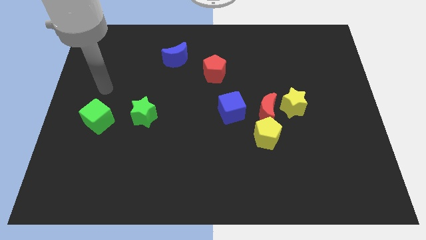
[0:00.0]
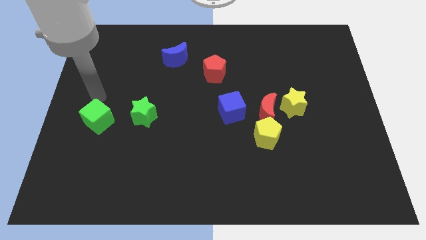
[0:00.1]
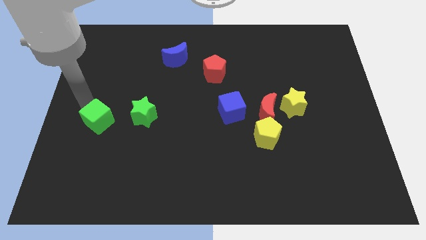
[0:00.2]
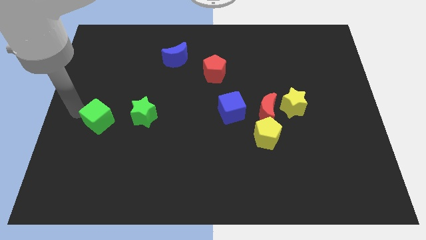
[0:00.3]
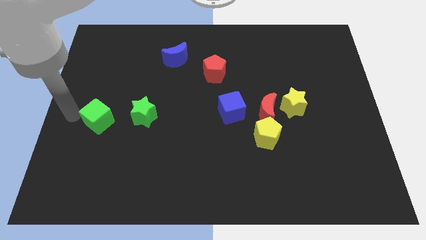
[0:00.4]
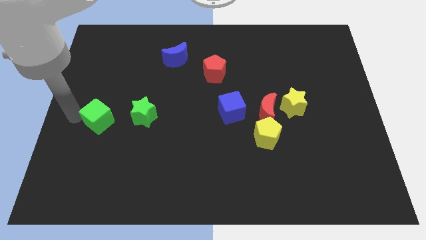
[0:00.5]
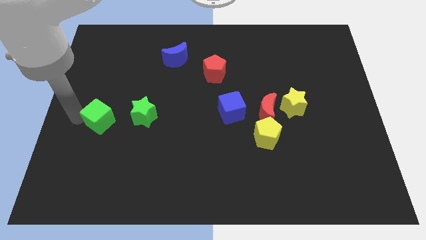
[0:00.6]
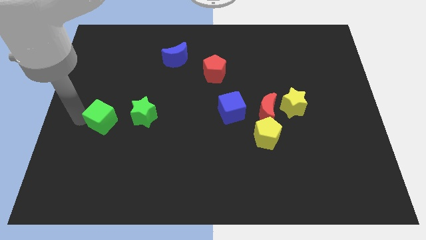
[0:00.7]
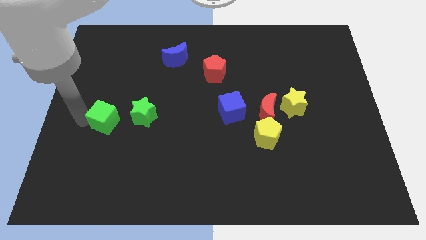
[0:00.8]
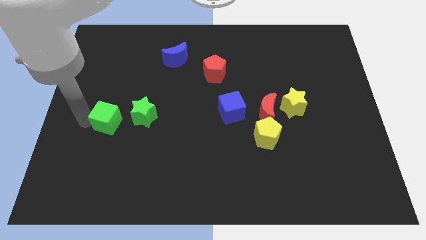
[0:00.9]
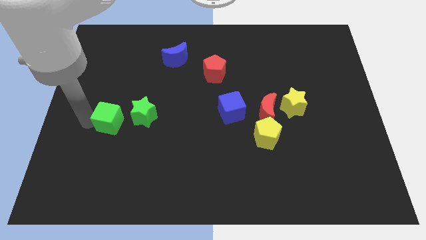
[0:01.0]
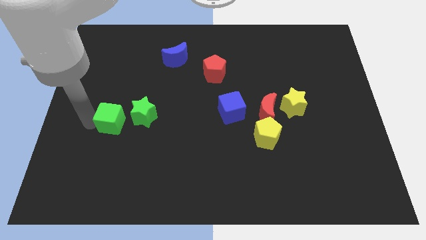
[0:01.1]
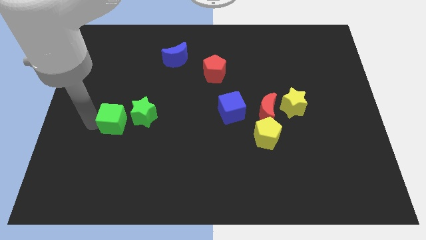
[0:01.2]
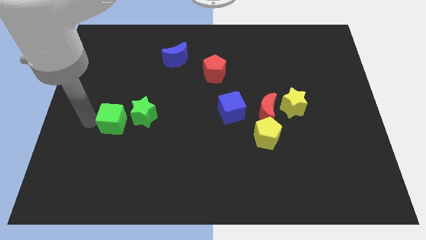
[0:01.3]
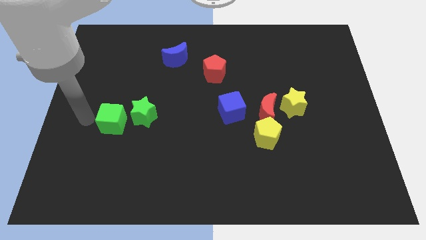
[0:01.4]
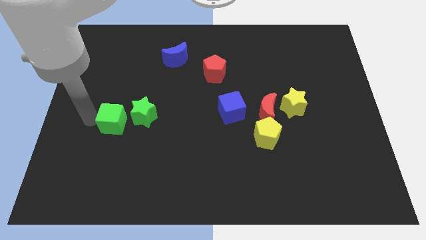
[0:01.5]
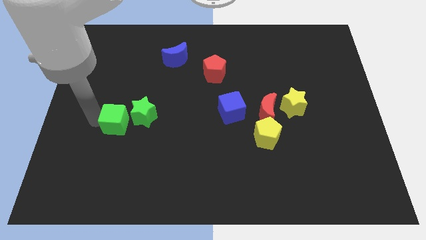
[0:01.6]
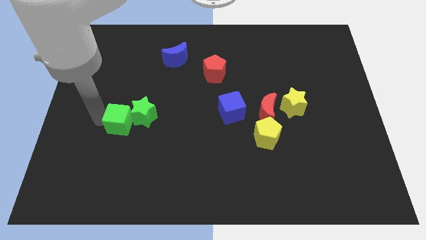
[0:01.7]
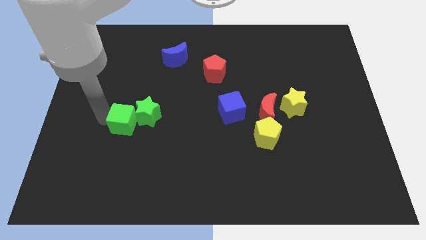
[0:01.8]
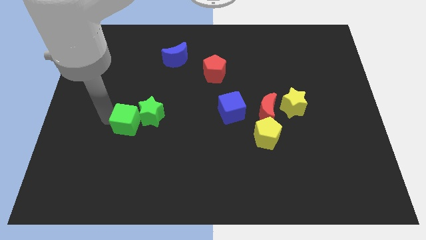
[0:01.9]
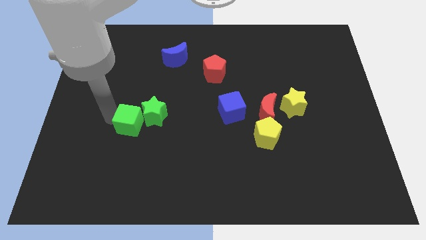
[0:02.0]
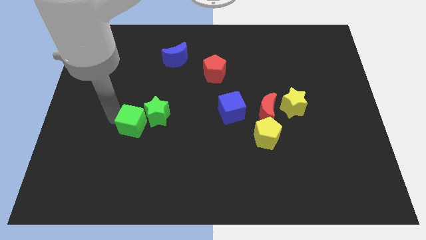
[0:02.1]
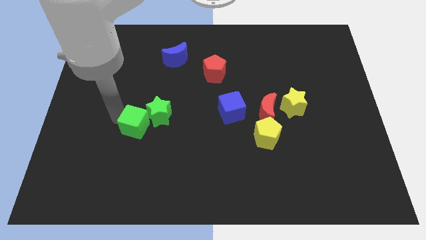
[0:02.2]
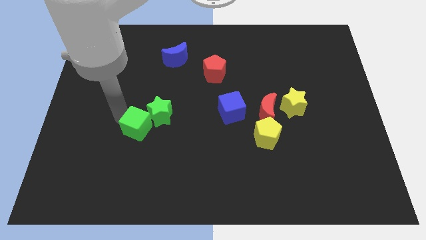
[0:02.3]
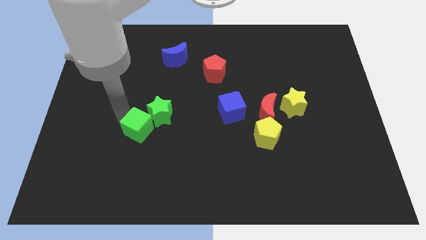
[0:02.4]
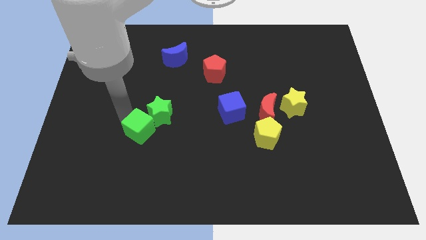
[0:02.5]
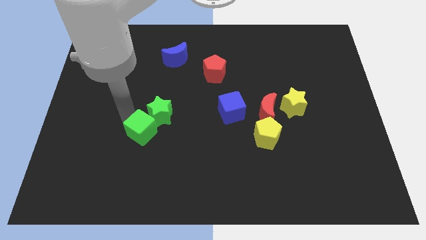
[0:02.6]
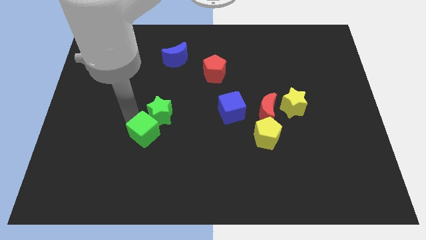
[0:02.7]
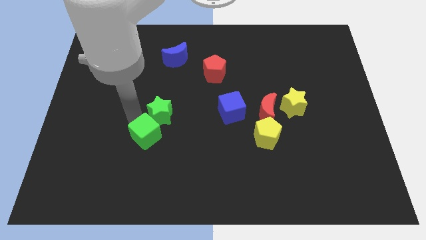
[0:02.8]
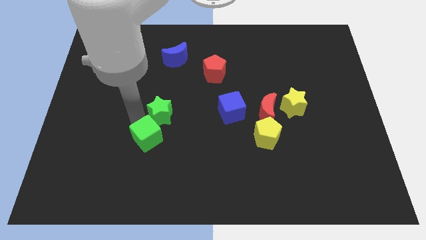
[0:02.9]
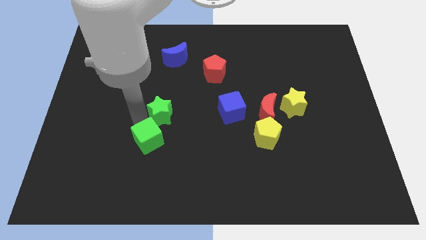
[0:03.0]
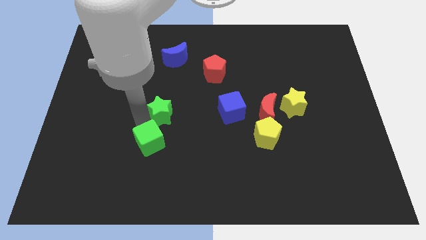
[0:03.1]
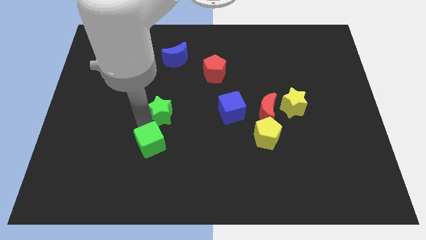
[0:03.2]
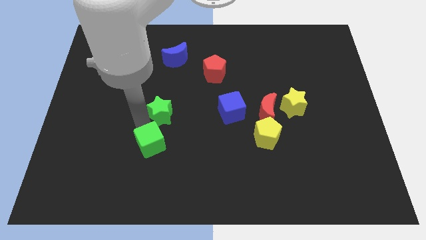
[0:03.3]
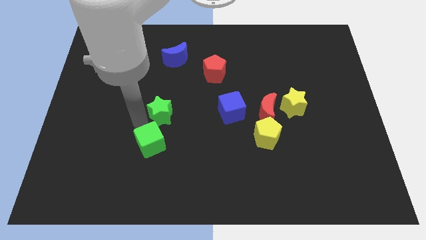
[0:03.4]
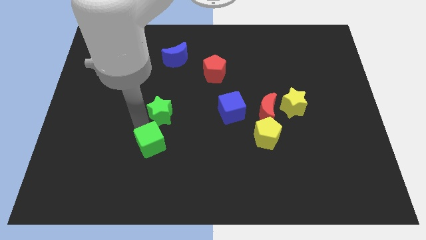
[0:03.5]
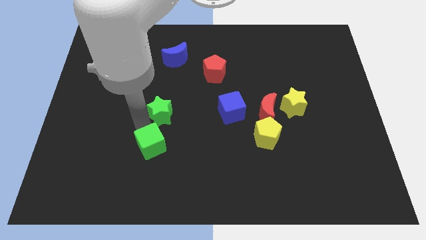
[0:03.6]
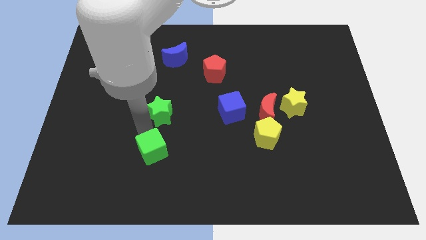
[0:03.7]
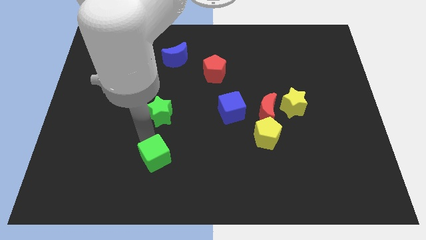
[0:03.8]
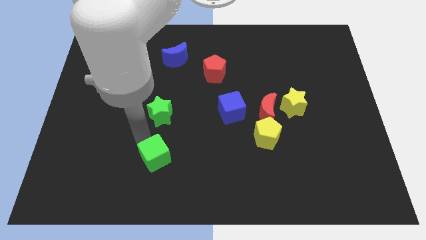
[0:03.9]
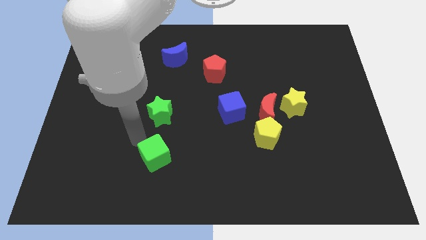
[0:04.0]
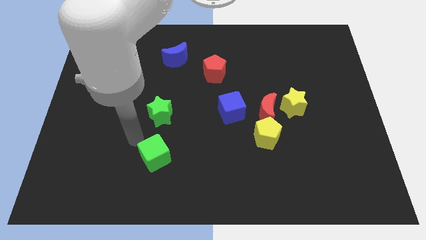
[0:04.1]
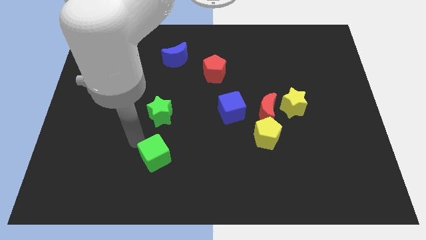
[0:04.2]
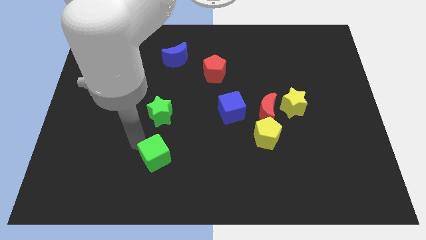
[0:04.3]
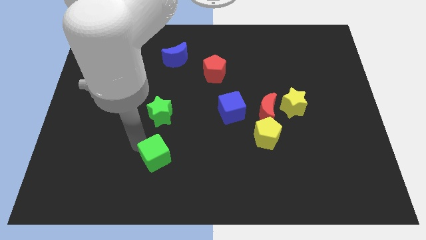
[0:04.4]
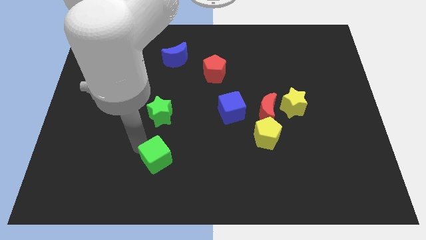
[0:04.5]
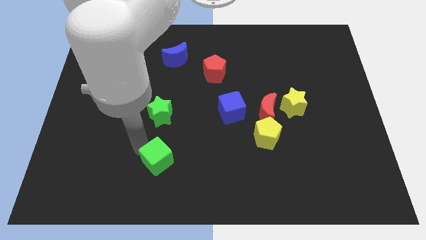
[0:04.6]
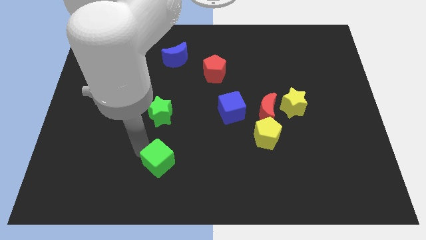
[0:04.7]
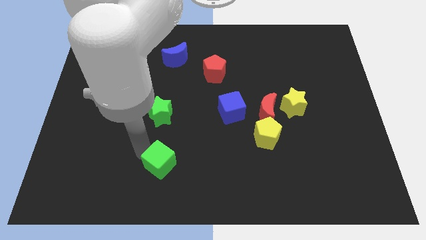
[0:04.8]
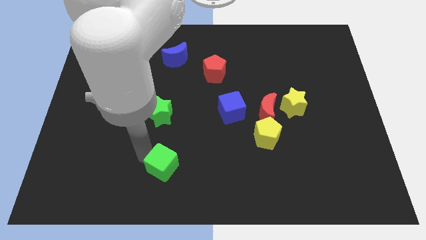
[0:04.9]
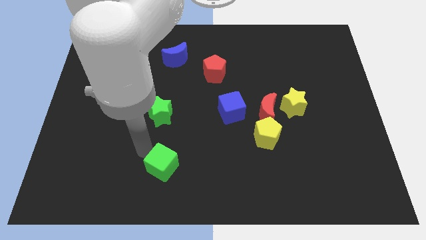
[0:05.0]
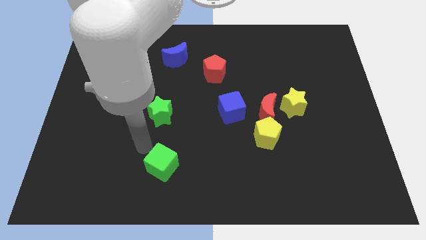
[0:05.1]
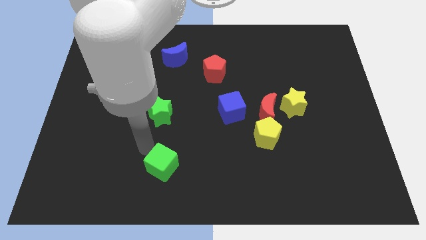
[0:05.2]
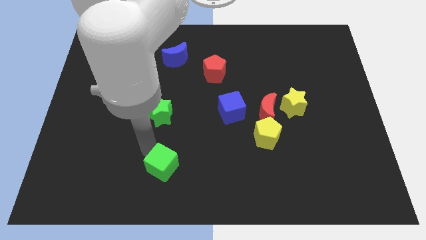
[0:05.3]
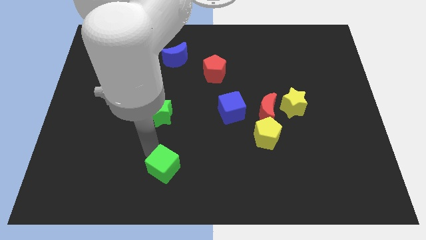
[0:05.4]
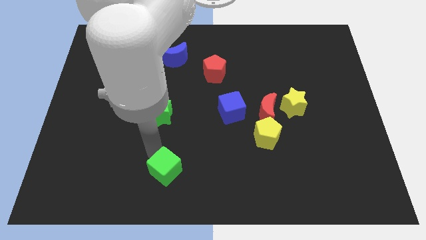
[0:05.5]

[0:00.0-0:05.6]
put the green cube to the bottom side

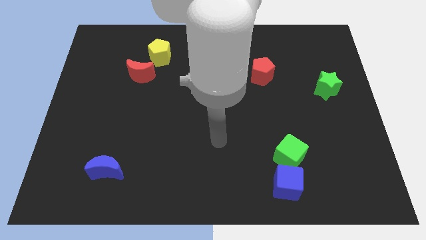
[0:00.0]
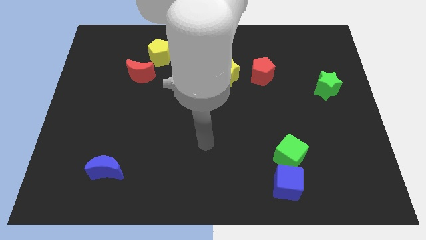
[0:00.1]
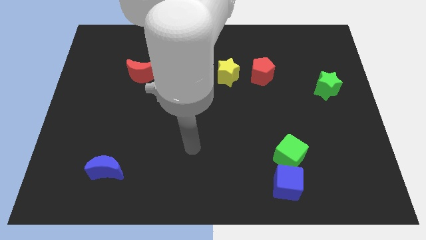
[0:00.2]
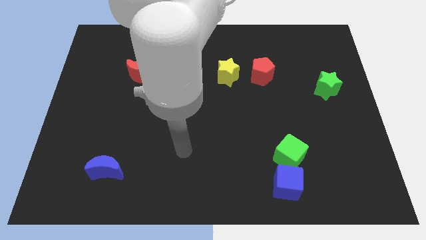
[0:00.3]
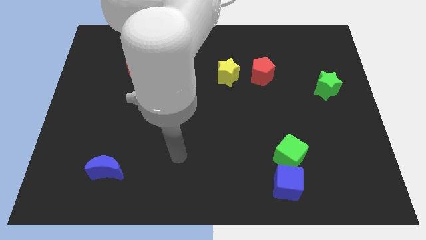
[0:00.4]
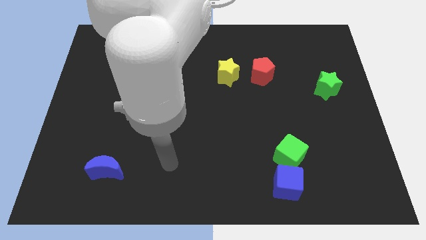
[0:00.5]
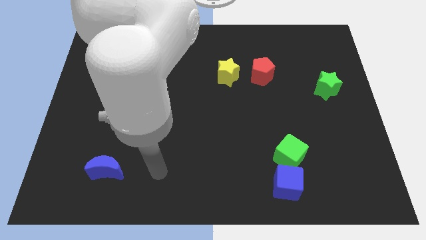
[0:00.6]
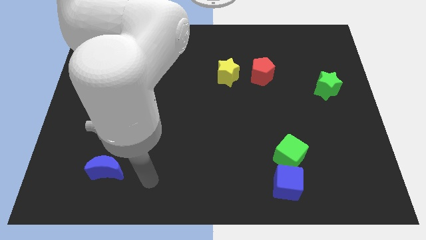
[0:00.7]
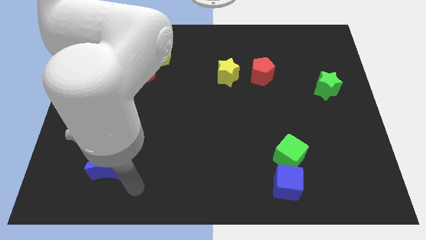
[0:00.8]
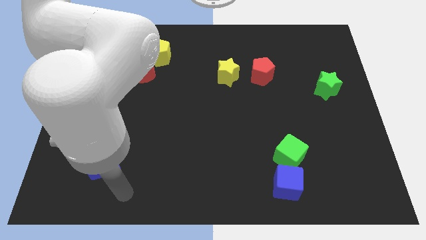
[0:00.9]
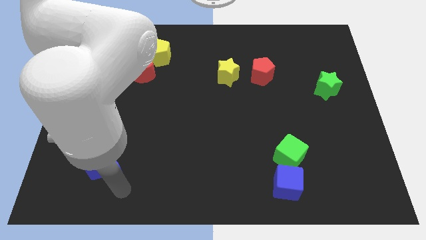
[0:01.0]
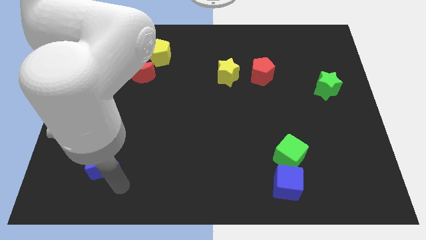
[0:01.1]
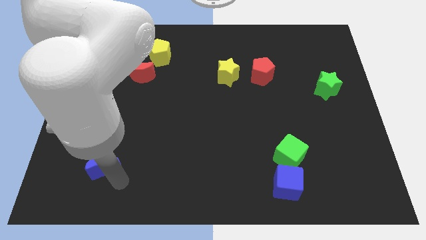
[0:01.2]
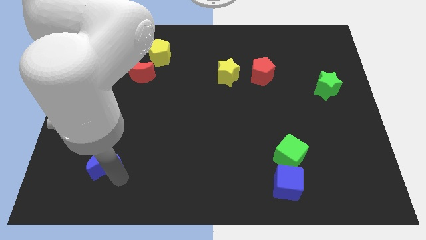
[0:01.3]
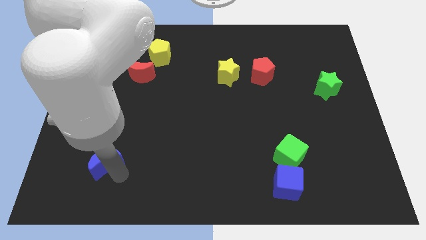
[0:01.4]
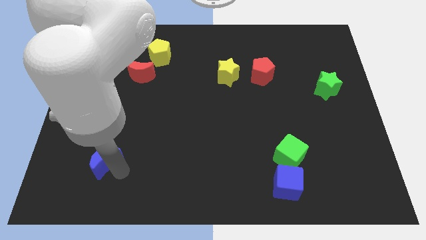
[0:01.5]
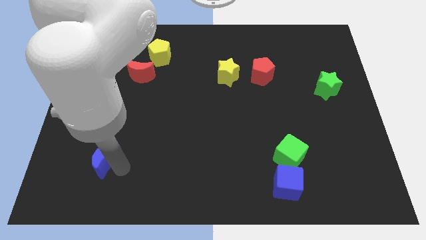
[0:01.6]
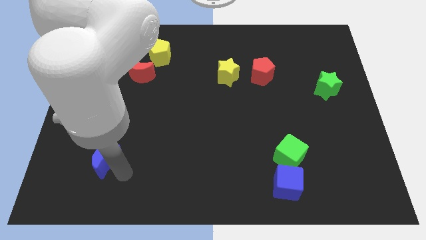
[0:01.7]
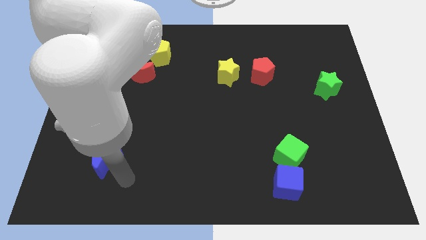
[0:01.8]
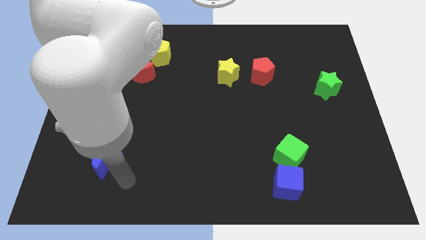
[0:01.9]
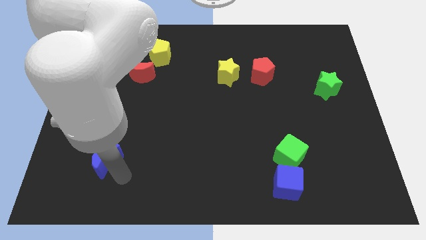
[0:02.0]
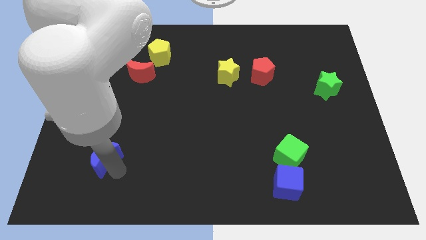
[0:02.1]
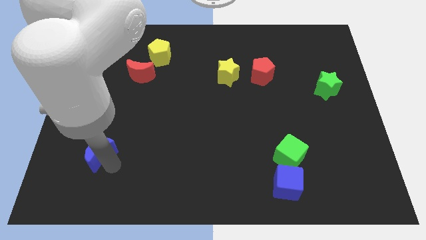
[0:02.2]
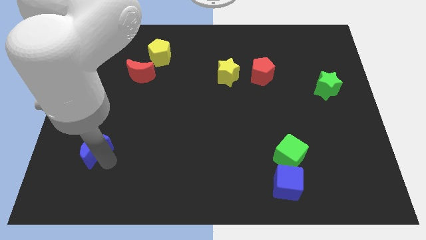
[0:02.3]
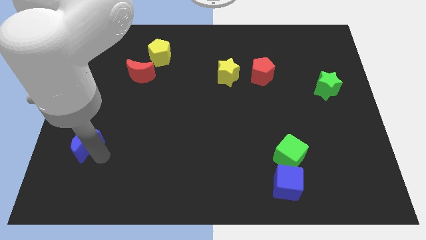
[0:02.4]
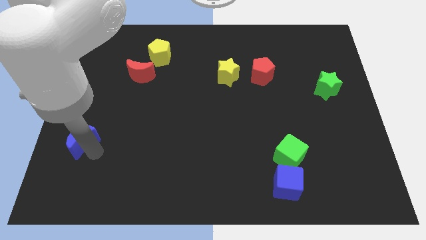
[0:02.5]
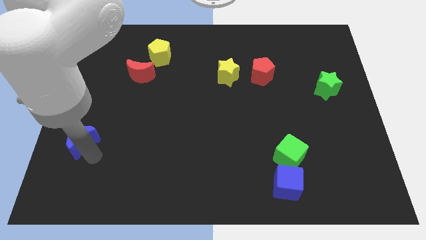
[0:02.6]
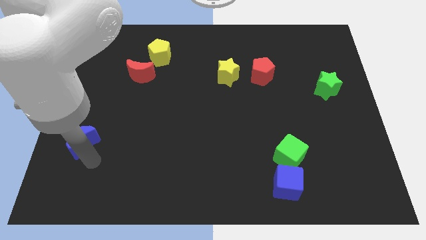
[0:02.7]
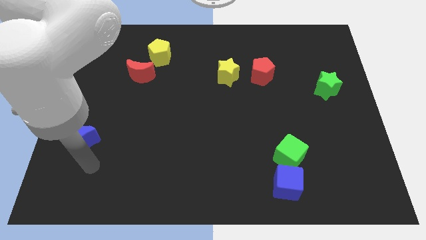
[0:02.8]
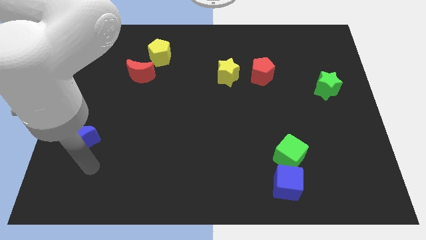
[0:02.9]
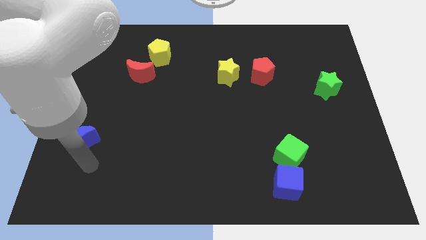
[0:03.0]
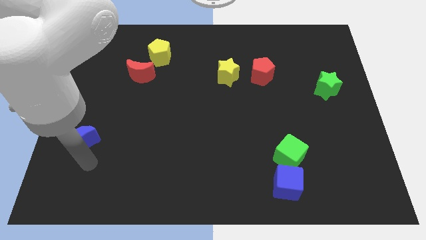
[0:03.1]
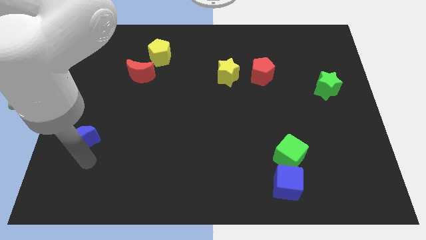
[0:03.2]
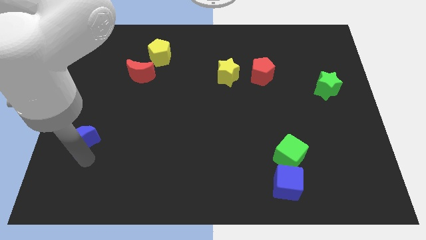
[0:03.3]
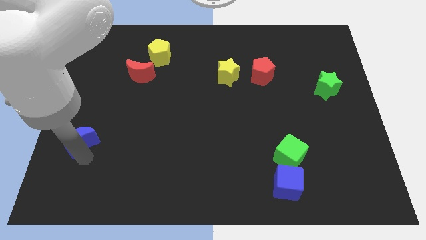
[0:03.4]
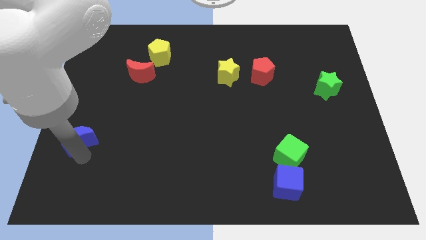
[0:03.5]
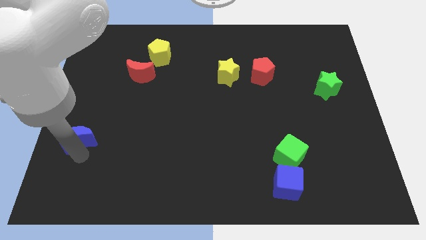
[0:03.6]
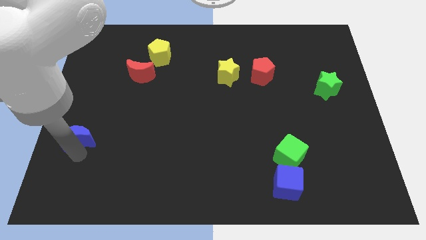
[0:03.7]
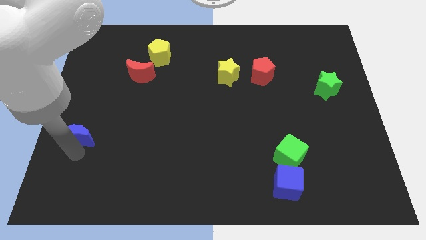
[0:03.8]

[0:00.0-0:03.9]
slide the blue moon to the center left
